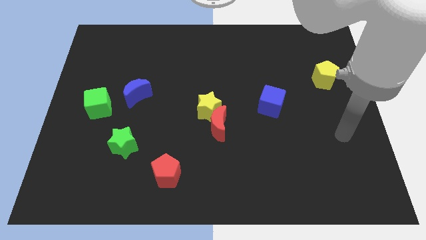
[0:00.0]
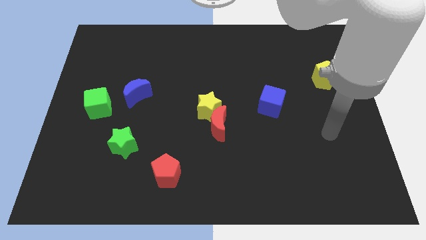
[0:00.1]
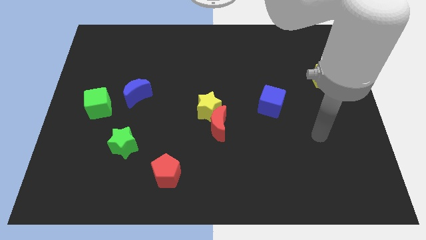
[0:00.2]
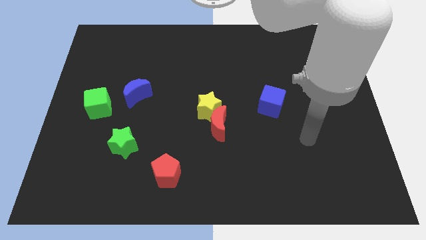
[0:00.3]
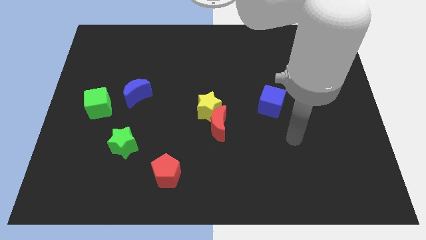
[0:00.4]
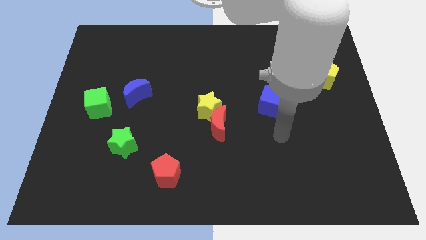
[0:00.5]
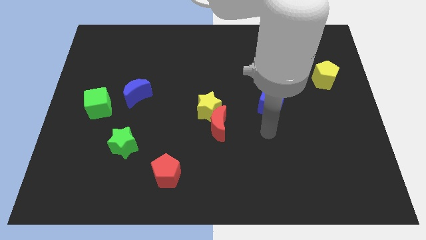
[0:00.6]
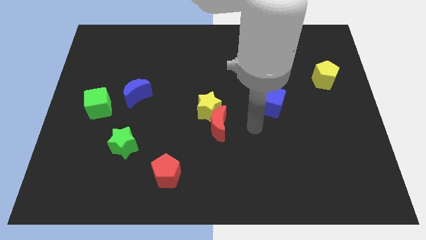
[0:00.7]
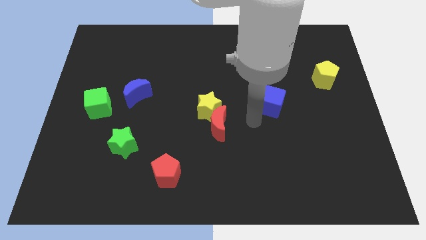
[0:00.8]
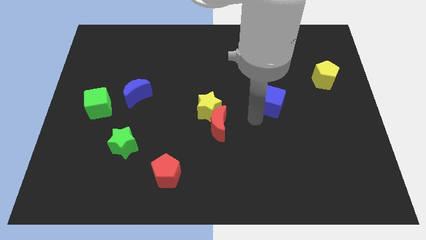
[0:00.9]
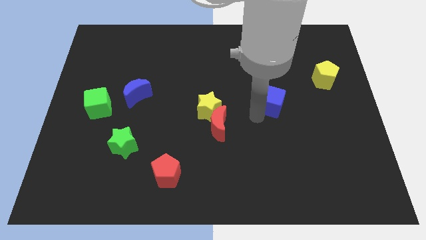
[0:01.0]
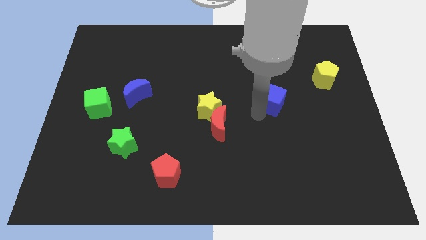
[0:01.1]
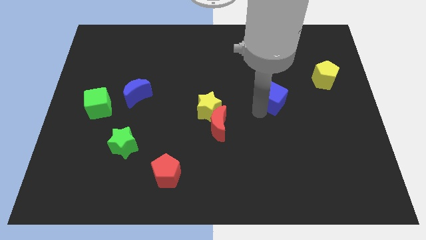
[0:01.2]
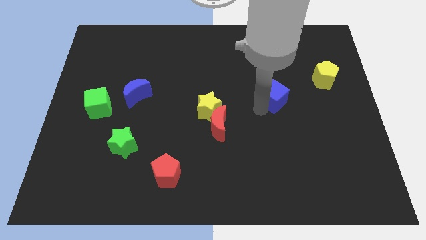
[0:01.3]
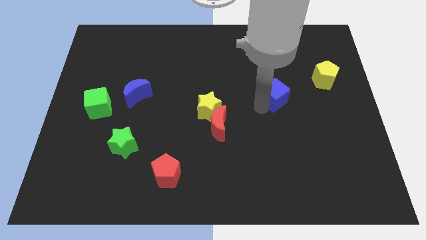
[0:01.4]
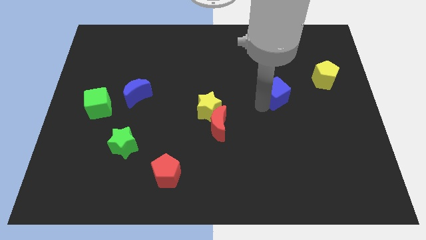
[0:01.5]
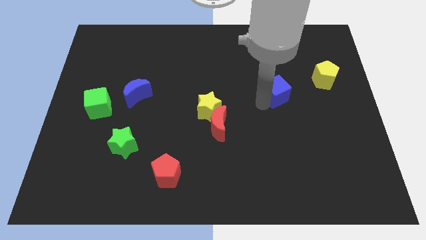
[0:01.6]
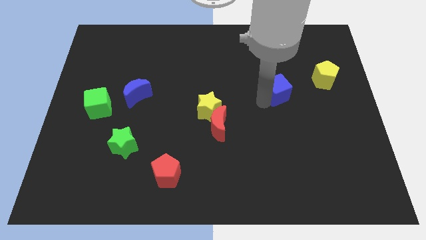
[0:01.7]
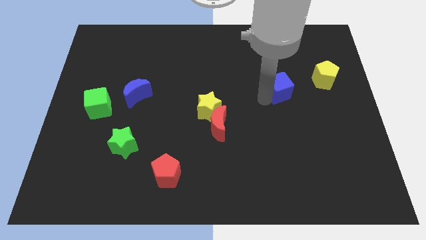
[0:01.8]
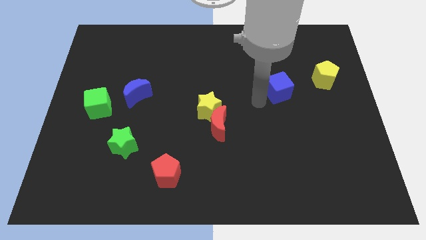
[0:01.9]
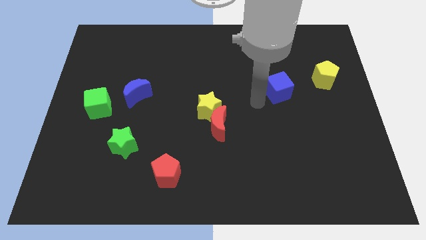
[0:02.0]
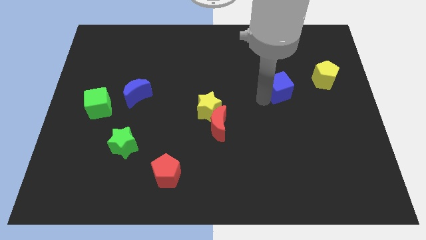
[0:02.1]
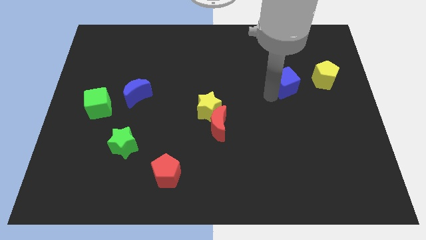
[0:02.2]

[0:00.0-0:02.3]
slightly move the blue cube upwards and then to the right

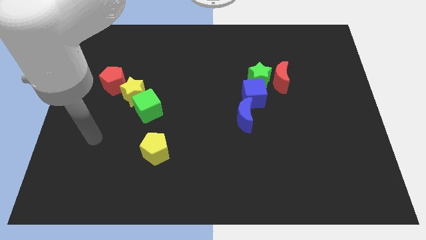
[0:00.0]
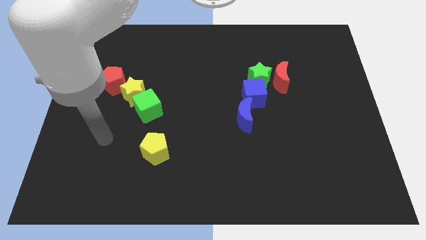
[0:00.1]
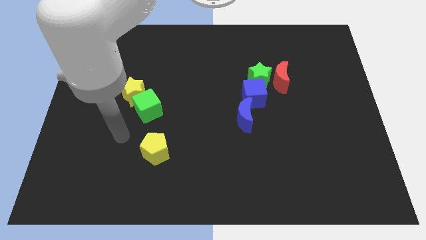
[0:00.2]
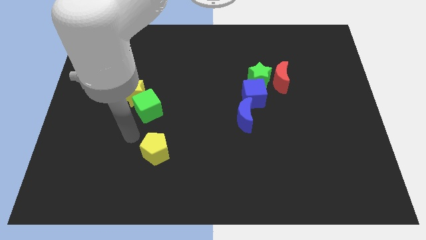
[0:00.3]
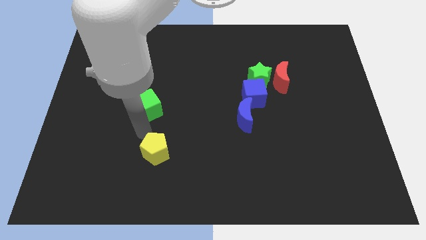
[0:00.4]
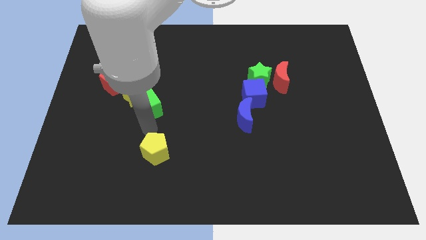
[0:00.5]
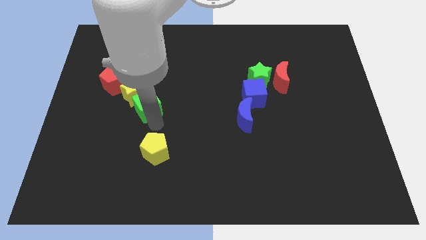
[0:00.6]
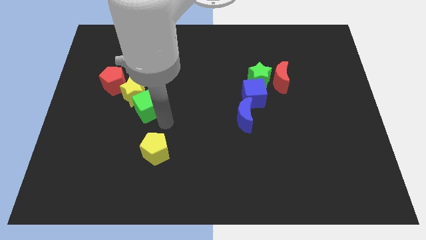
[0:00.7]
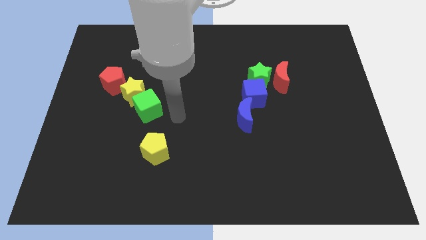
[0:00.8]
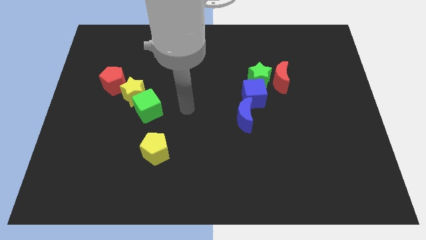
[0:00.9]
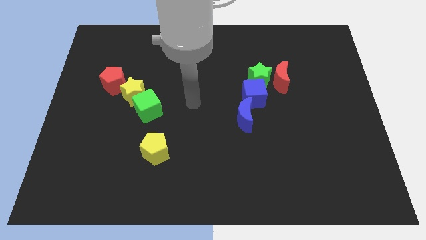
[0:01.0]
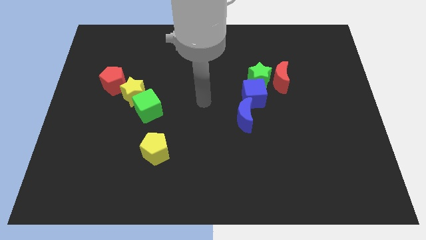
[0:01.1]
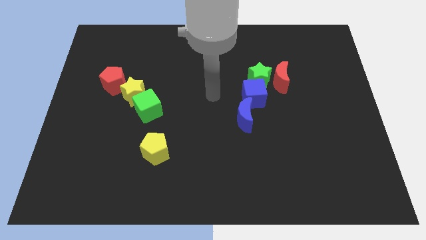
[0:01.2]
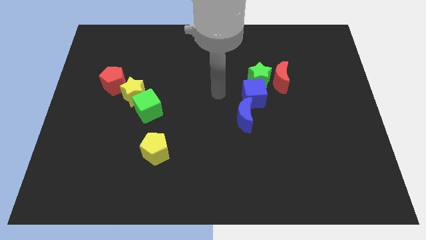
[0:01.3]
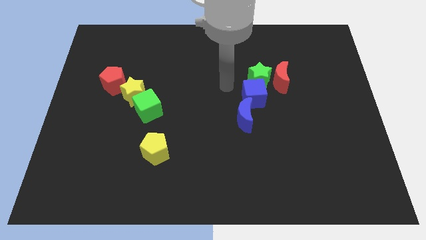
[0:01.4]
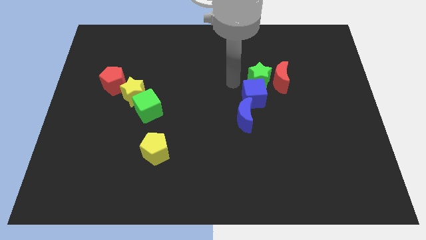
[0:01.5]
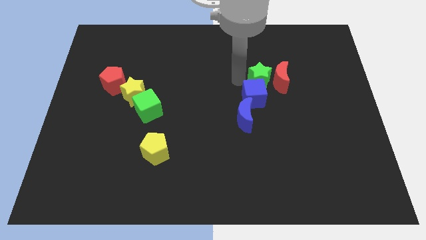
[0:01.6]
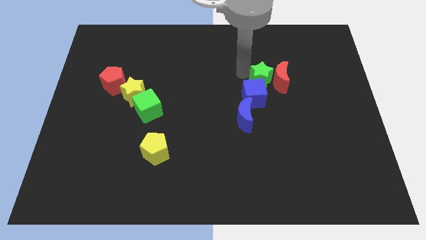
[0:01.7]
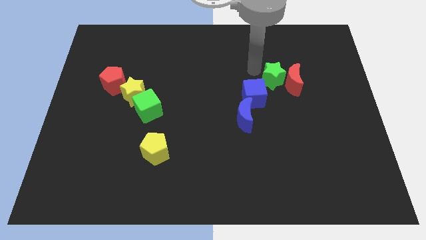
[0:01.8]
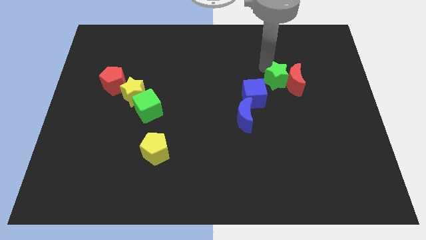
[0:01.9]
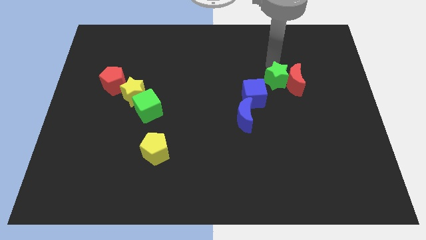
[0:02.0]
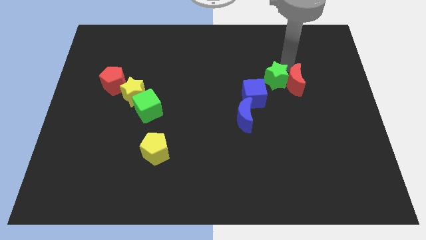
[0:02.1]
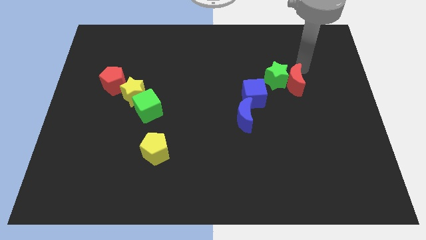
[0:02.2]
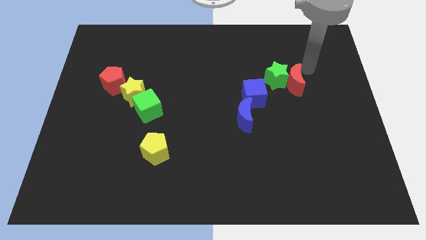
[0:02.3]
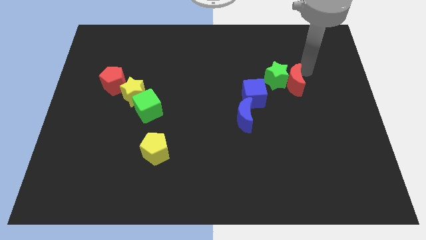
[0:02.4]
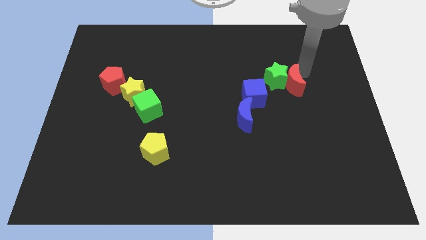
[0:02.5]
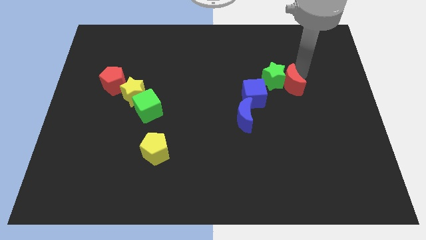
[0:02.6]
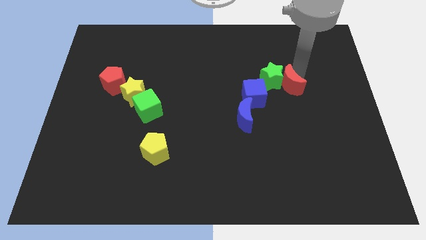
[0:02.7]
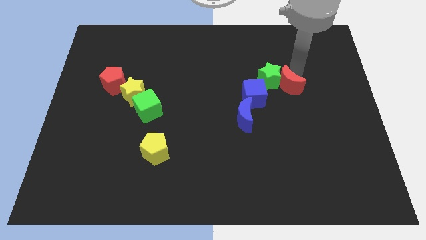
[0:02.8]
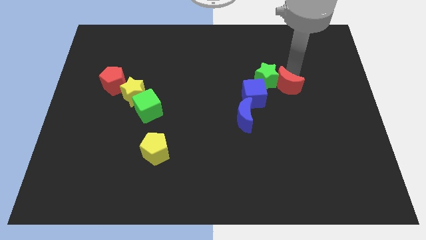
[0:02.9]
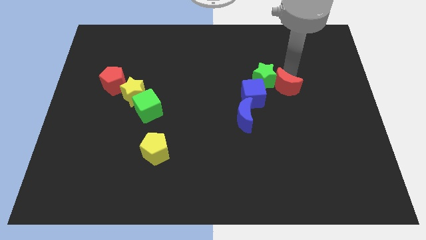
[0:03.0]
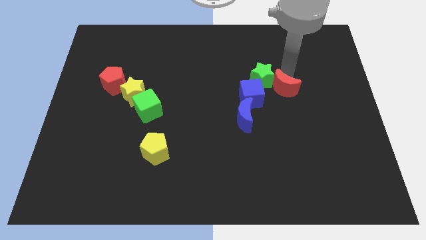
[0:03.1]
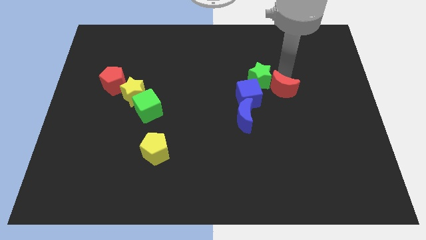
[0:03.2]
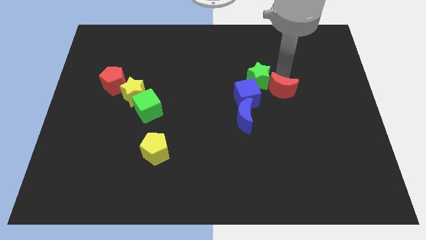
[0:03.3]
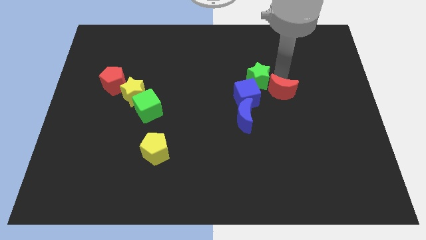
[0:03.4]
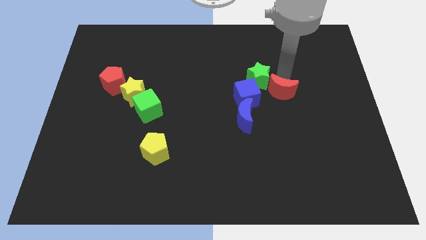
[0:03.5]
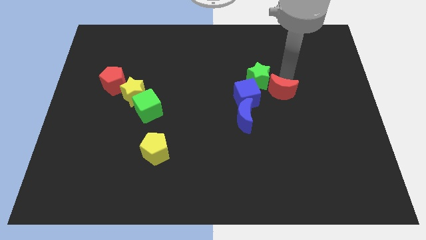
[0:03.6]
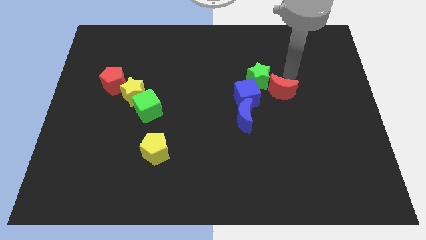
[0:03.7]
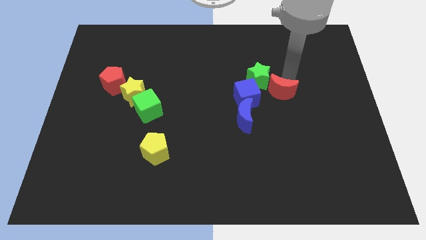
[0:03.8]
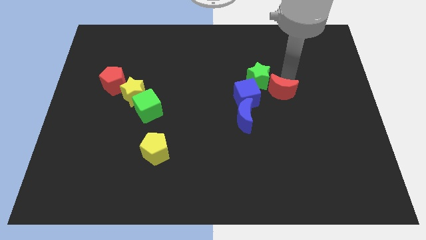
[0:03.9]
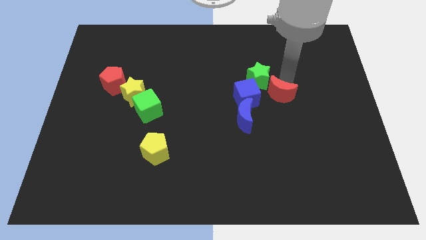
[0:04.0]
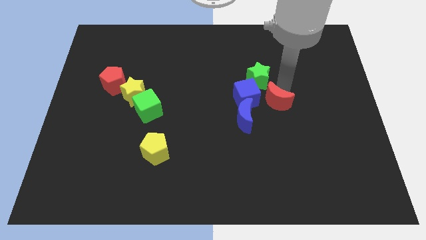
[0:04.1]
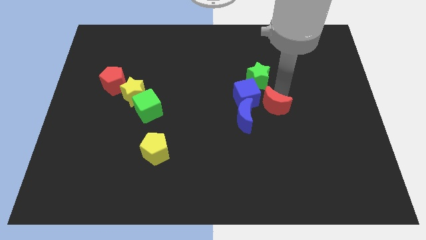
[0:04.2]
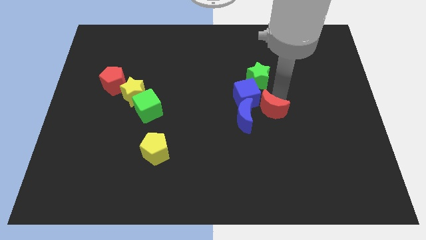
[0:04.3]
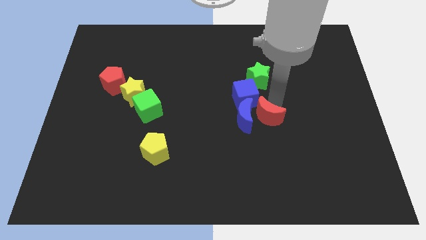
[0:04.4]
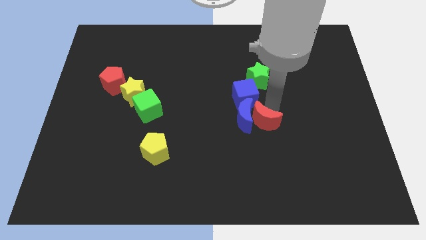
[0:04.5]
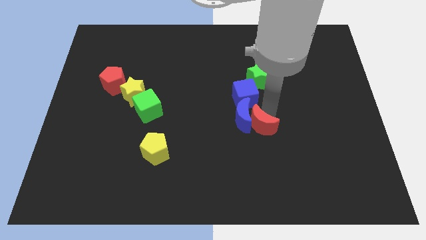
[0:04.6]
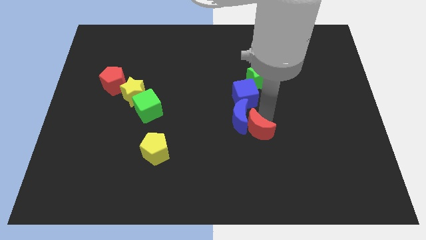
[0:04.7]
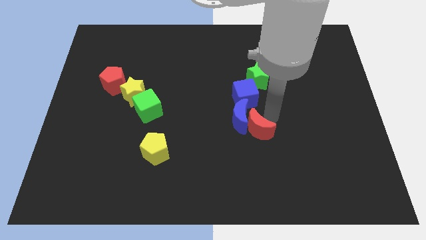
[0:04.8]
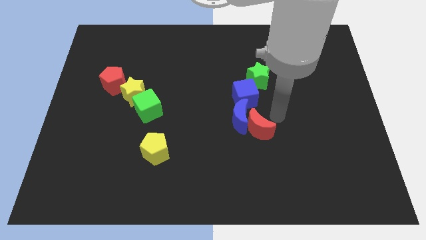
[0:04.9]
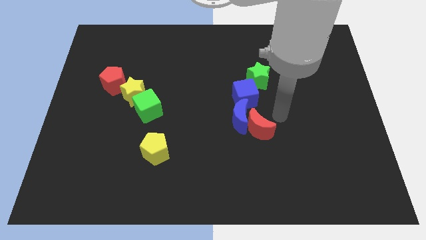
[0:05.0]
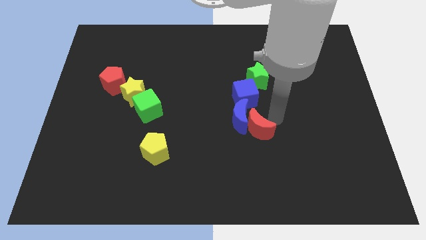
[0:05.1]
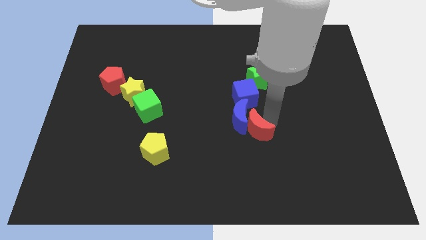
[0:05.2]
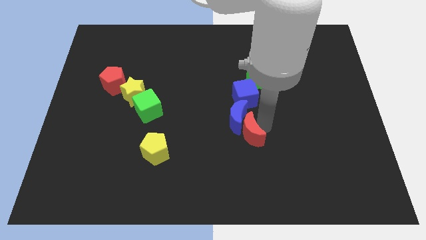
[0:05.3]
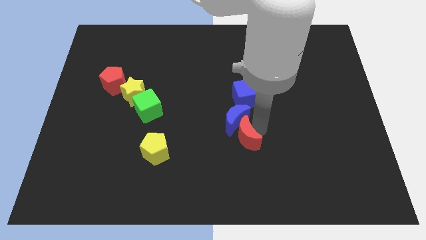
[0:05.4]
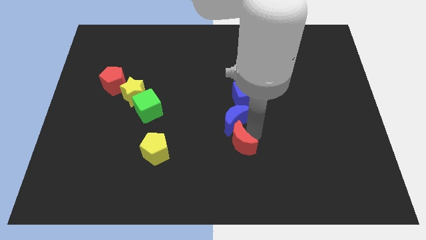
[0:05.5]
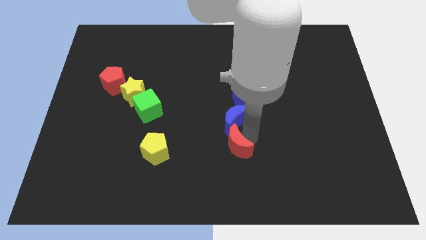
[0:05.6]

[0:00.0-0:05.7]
move the red moon downwards and to the left

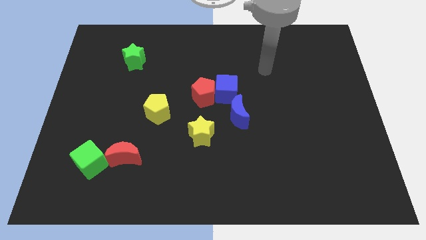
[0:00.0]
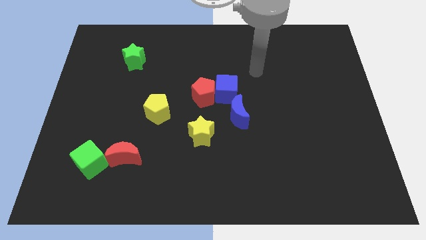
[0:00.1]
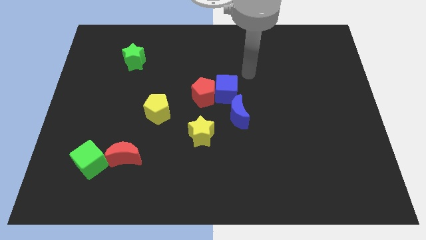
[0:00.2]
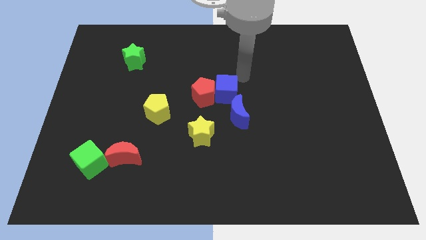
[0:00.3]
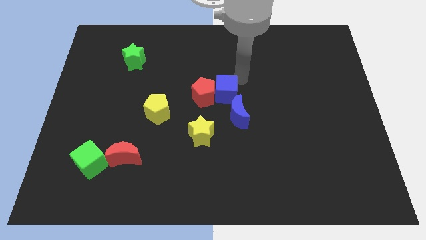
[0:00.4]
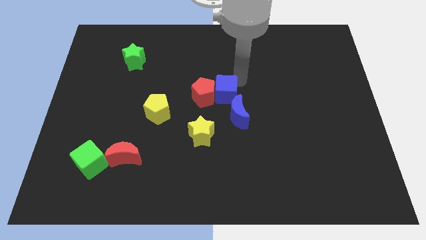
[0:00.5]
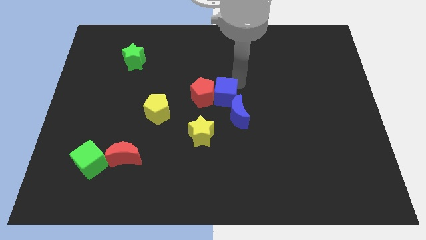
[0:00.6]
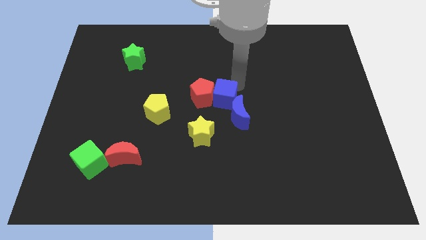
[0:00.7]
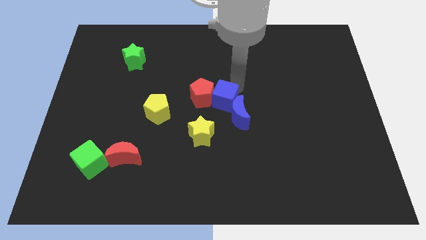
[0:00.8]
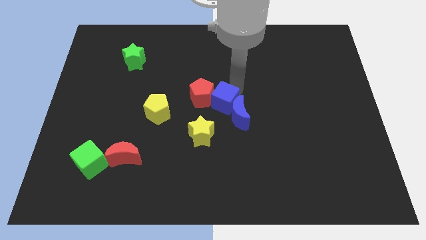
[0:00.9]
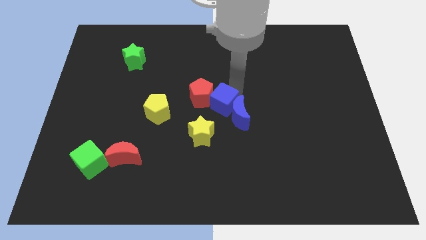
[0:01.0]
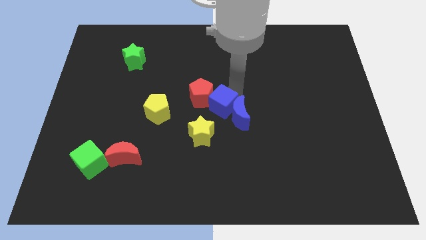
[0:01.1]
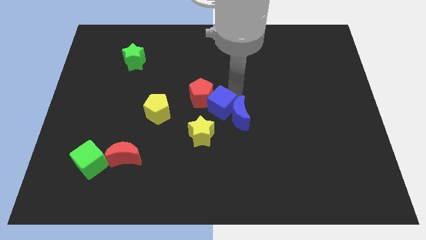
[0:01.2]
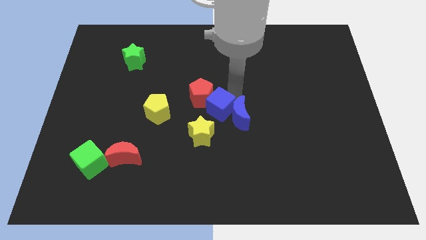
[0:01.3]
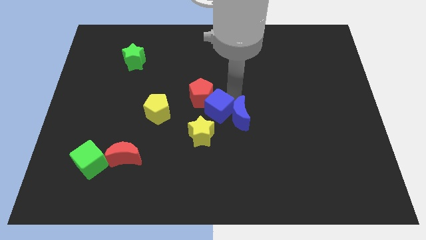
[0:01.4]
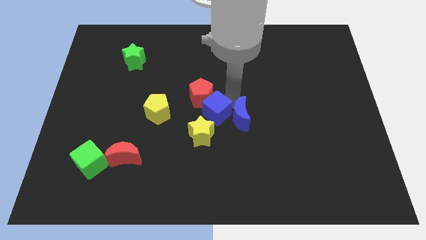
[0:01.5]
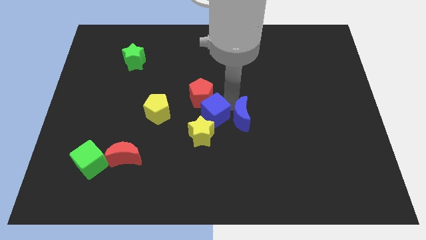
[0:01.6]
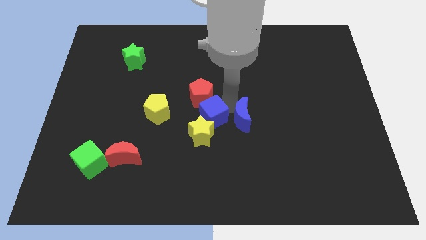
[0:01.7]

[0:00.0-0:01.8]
slightly move the blue cube down and to the left
